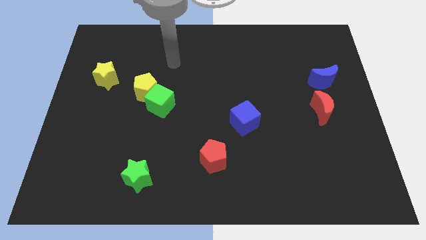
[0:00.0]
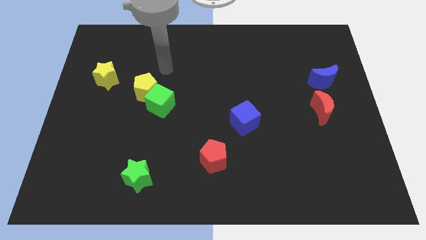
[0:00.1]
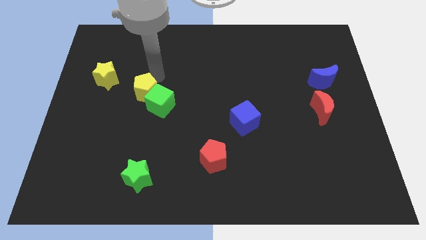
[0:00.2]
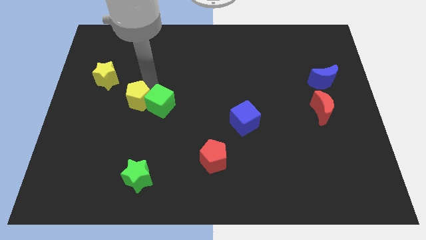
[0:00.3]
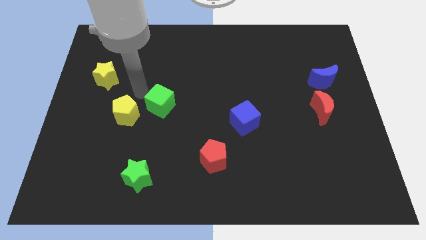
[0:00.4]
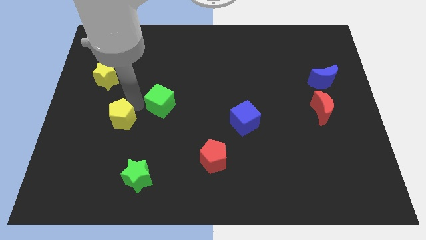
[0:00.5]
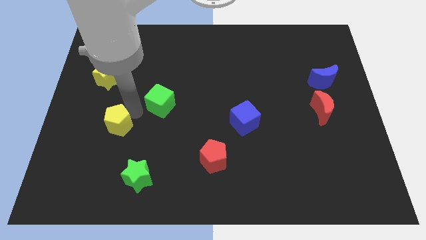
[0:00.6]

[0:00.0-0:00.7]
move the green cube away from the yellow pentagon

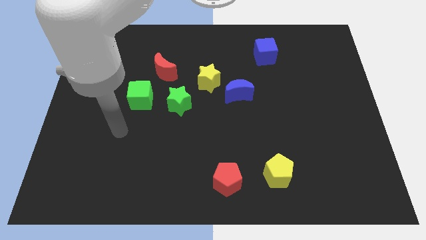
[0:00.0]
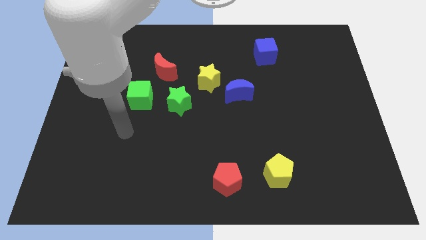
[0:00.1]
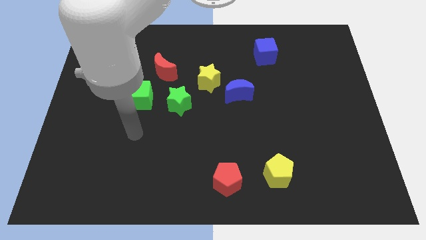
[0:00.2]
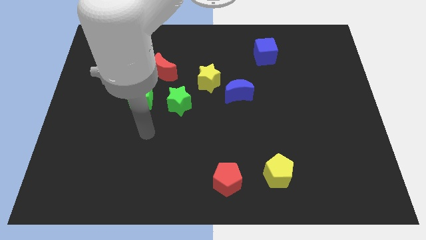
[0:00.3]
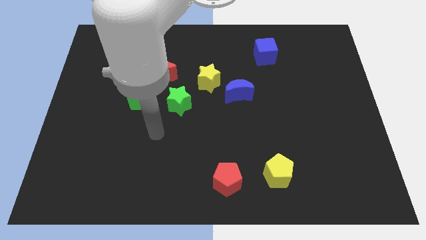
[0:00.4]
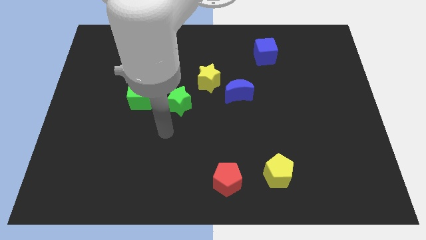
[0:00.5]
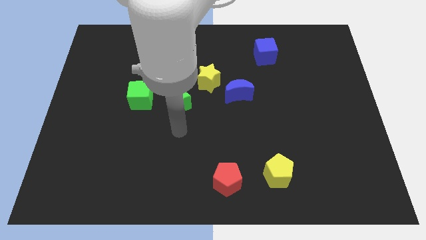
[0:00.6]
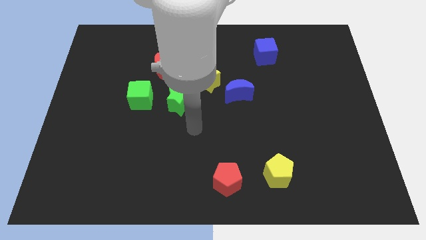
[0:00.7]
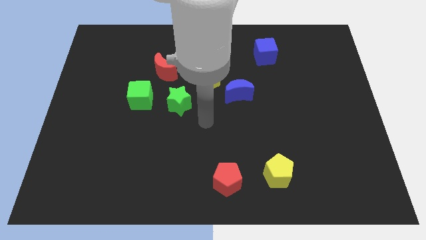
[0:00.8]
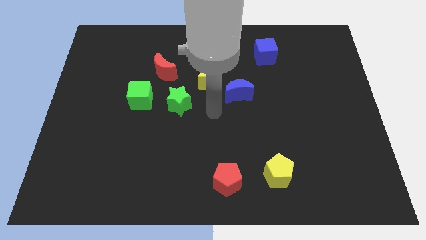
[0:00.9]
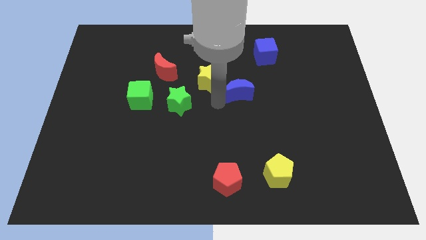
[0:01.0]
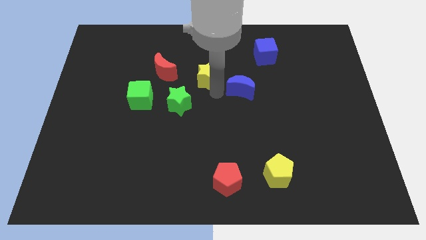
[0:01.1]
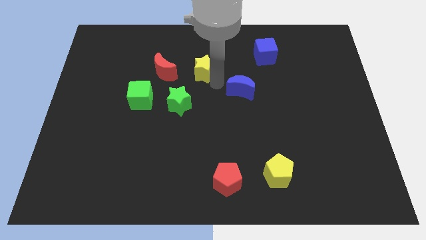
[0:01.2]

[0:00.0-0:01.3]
pull the blue moon apart from the yellow star

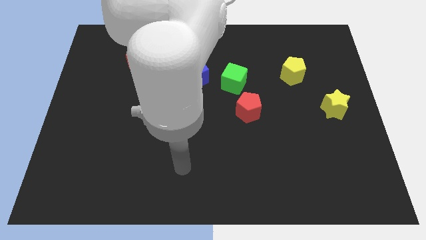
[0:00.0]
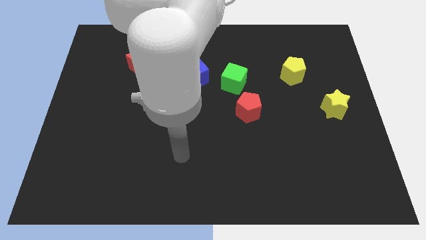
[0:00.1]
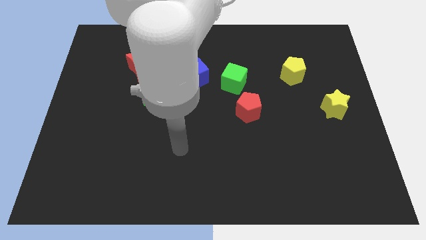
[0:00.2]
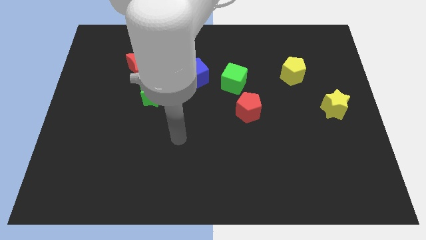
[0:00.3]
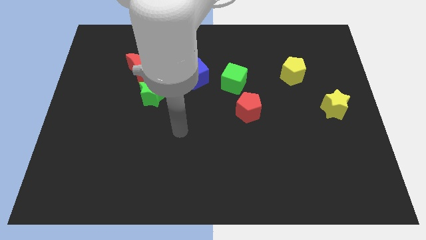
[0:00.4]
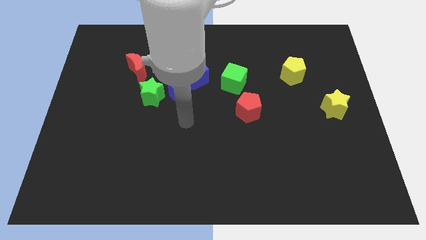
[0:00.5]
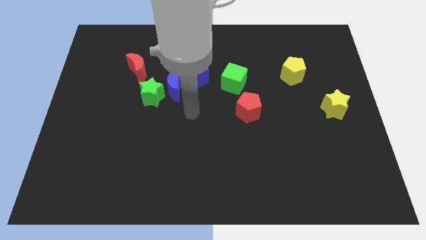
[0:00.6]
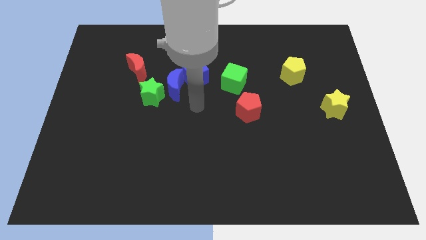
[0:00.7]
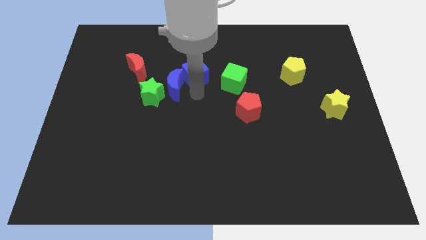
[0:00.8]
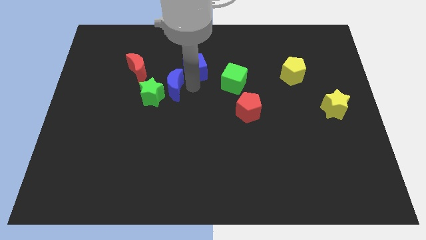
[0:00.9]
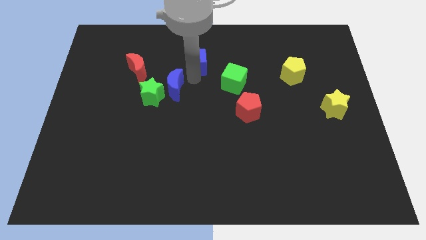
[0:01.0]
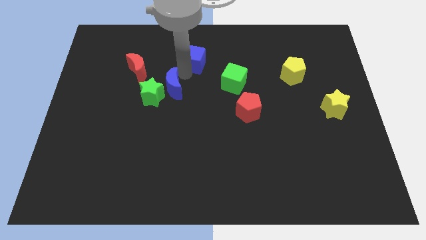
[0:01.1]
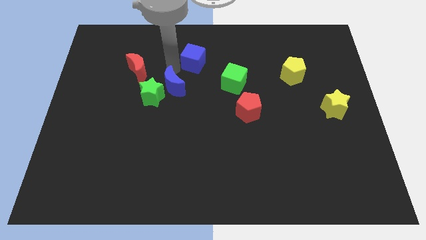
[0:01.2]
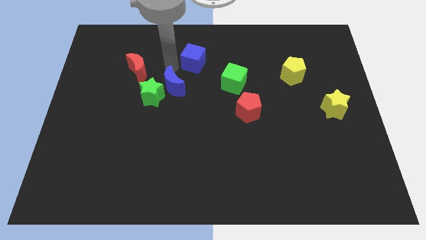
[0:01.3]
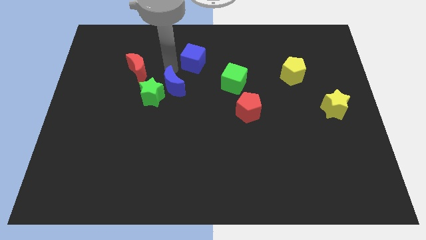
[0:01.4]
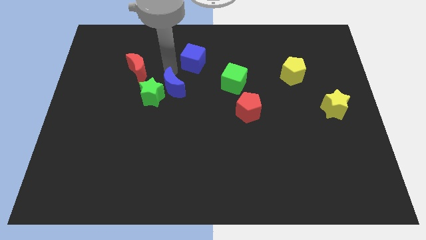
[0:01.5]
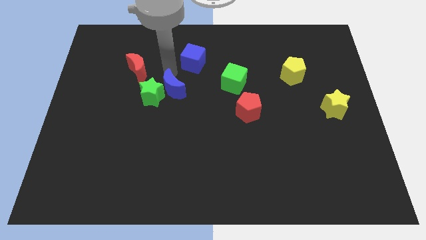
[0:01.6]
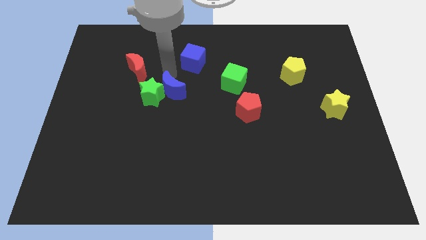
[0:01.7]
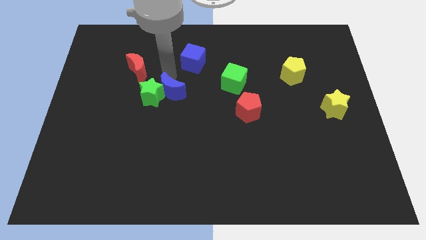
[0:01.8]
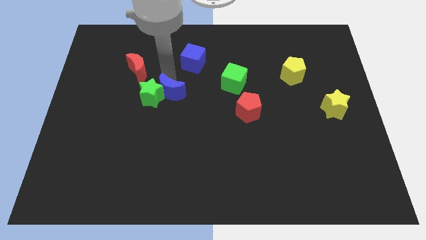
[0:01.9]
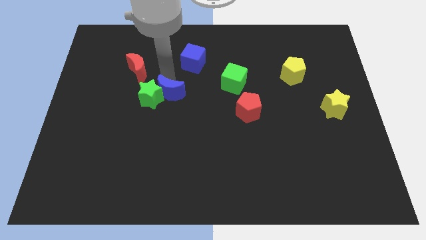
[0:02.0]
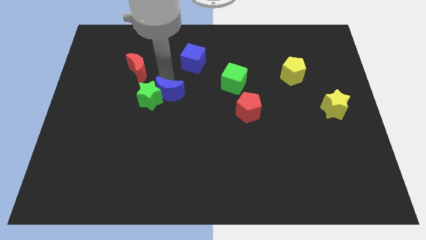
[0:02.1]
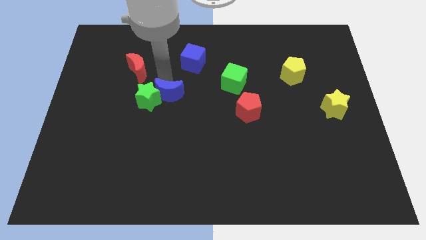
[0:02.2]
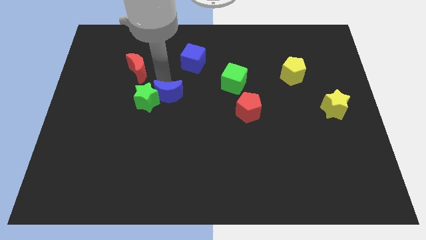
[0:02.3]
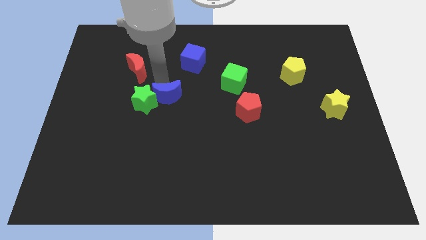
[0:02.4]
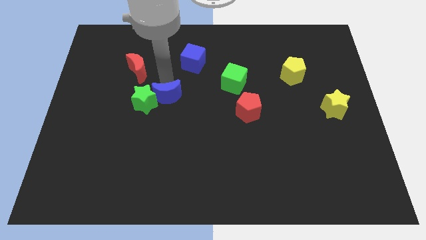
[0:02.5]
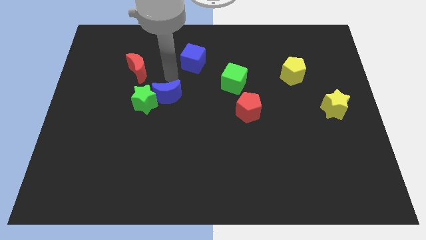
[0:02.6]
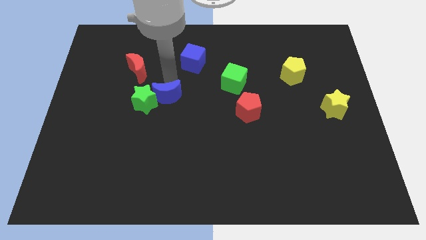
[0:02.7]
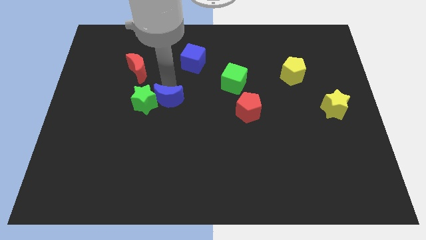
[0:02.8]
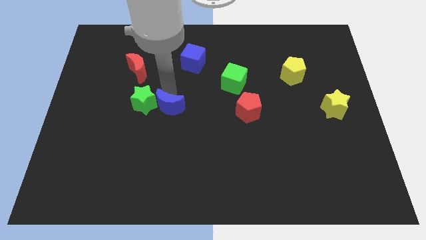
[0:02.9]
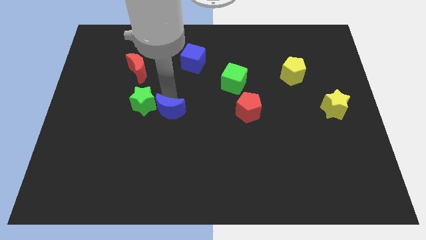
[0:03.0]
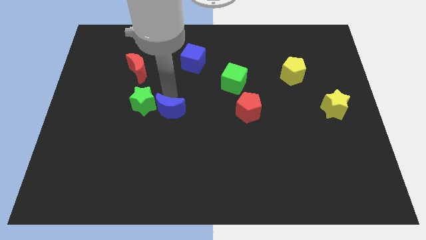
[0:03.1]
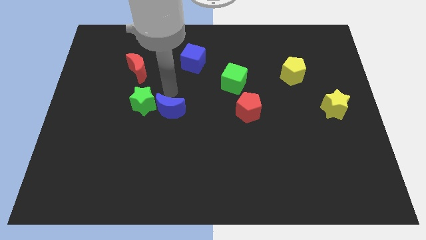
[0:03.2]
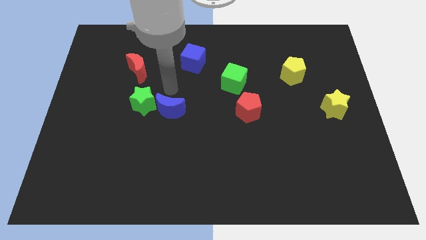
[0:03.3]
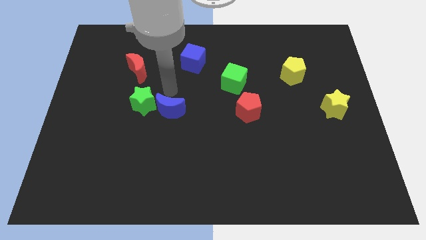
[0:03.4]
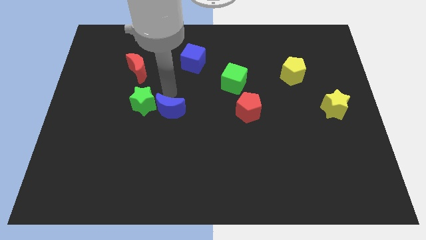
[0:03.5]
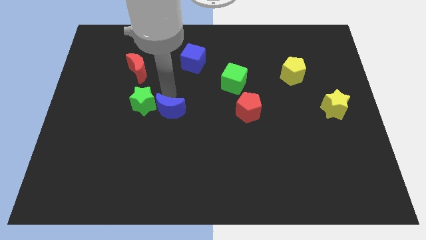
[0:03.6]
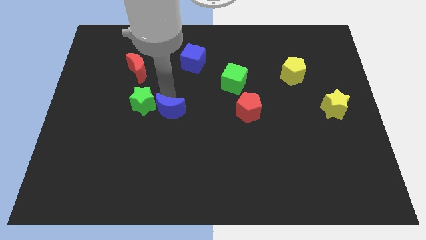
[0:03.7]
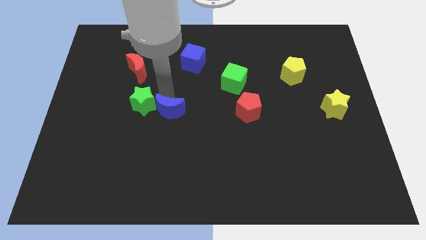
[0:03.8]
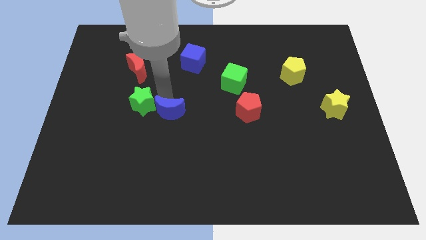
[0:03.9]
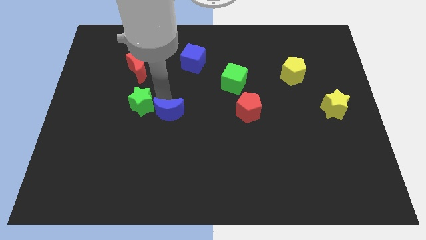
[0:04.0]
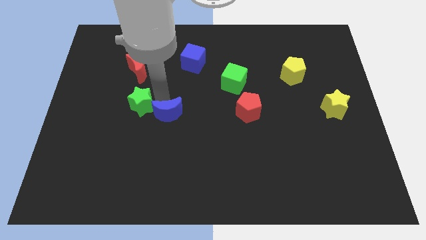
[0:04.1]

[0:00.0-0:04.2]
move the blue moon away from the green star and blue cube

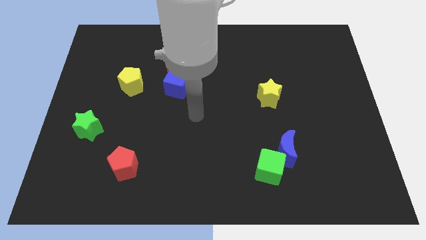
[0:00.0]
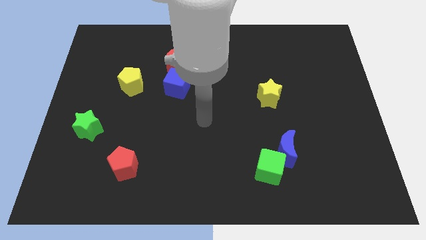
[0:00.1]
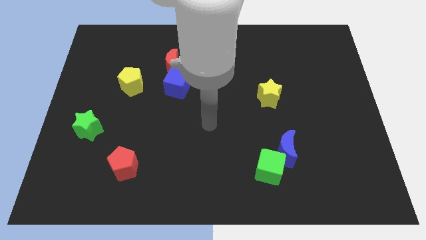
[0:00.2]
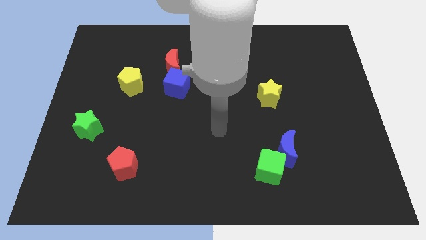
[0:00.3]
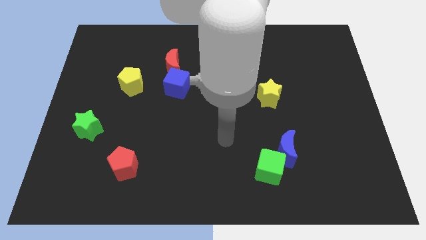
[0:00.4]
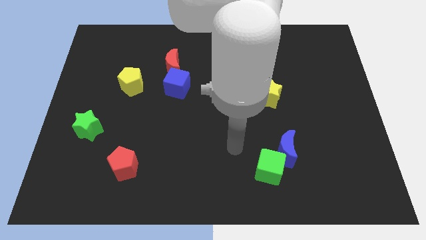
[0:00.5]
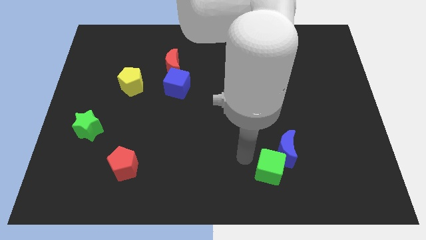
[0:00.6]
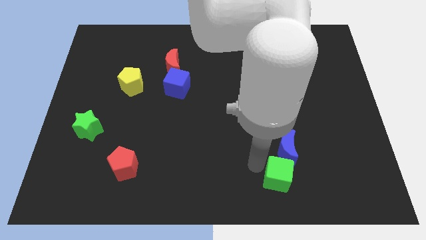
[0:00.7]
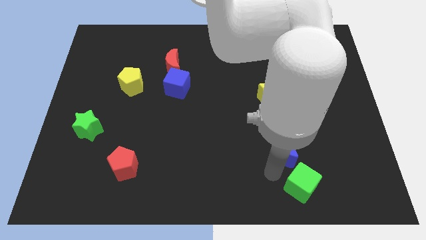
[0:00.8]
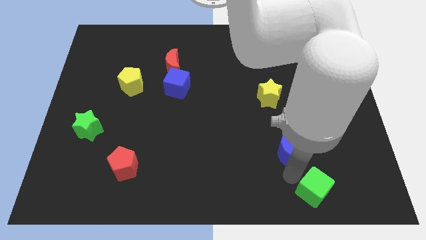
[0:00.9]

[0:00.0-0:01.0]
move the blue moon away from the green cube

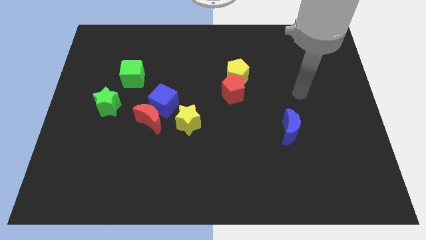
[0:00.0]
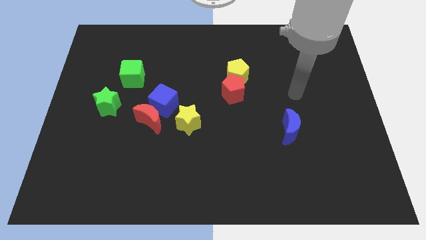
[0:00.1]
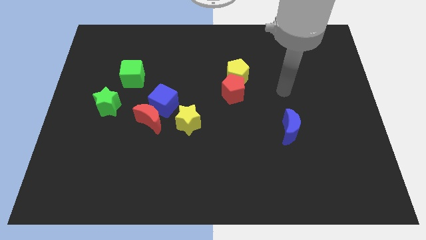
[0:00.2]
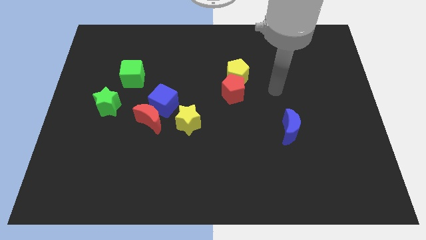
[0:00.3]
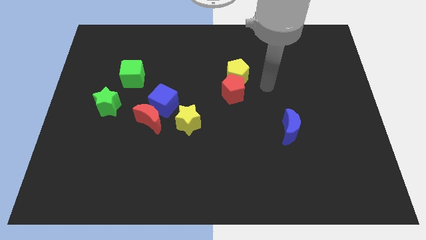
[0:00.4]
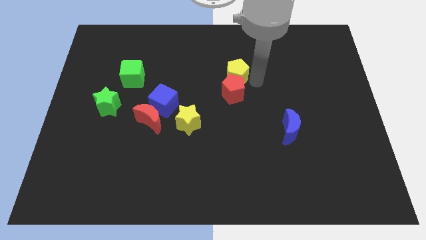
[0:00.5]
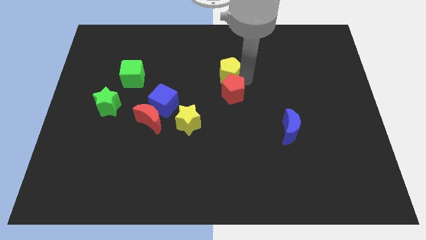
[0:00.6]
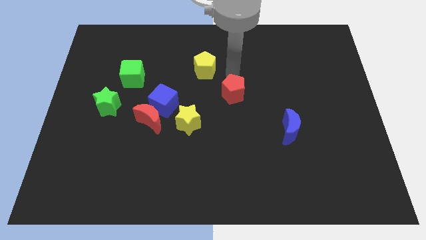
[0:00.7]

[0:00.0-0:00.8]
separate the red pentagon from the yellow pentagon

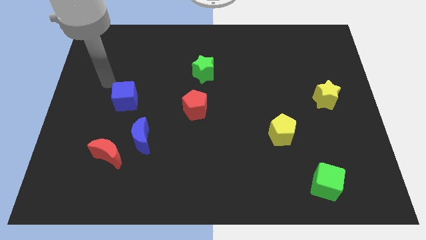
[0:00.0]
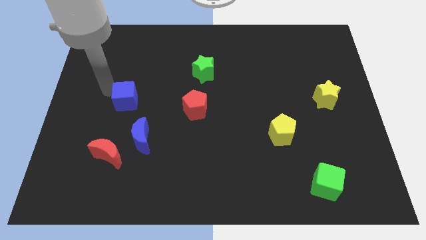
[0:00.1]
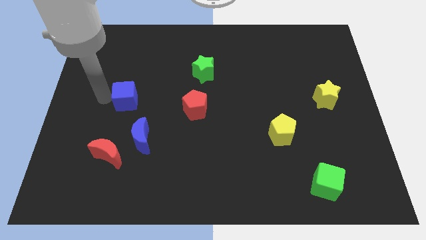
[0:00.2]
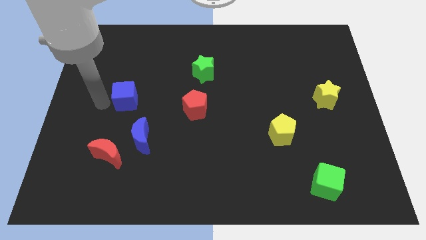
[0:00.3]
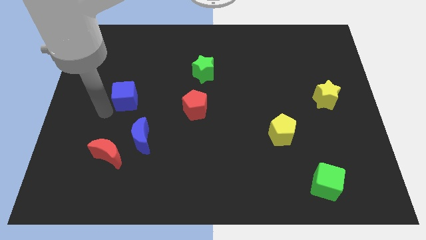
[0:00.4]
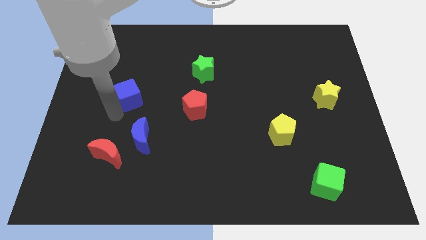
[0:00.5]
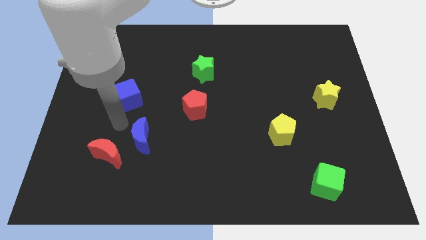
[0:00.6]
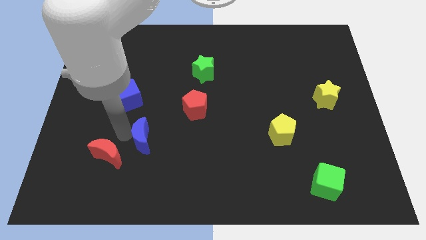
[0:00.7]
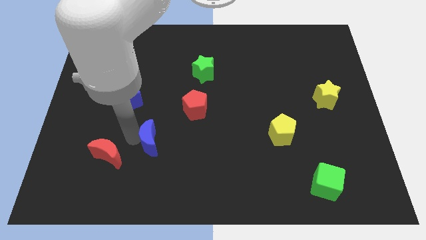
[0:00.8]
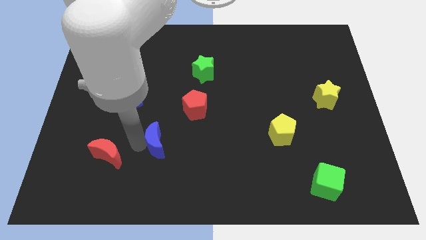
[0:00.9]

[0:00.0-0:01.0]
separate the red moon from the blue moon

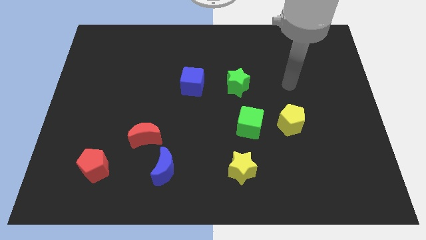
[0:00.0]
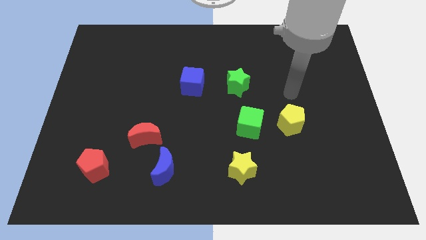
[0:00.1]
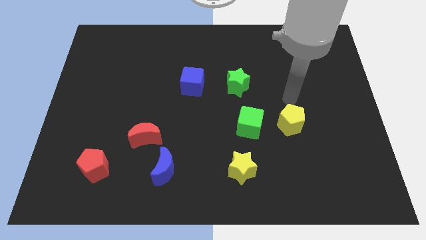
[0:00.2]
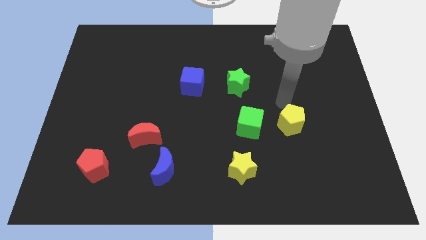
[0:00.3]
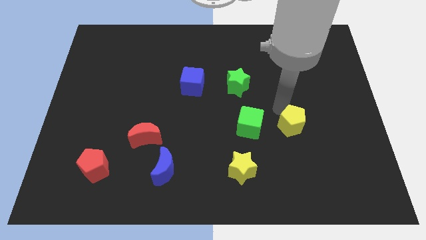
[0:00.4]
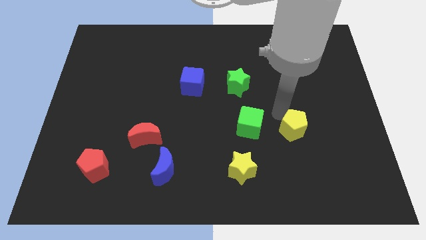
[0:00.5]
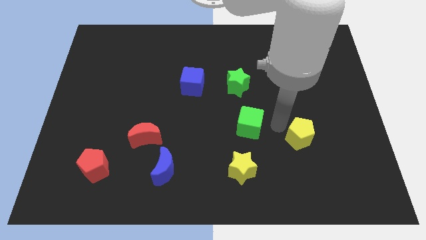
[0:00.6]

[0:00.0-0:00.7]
pull the green cube apart from the yellow pentagon
